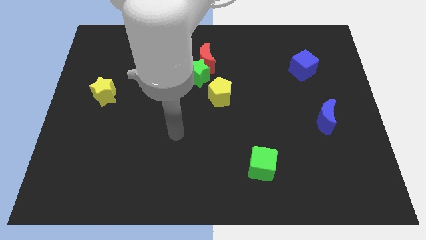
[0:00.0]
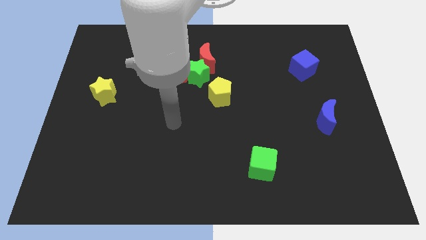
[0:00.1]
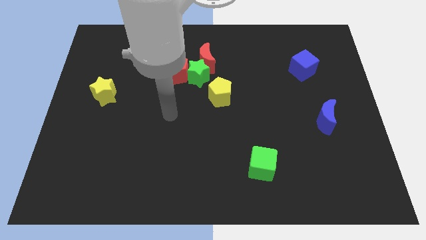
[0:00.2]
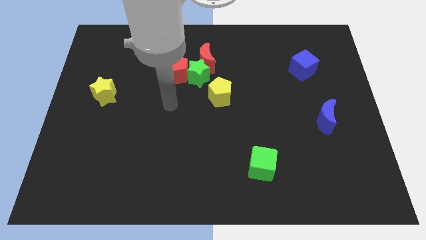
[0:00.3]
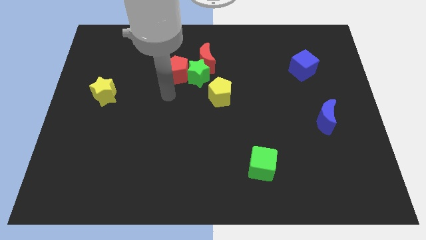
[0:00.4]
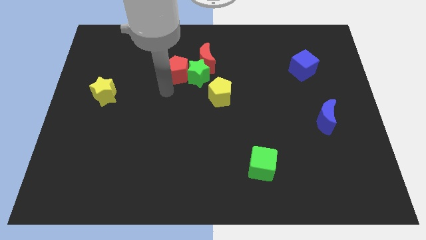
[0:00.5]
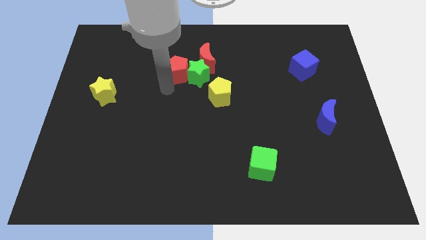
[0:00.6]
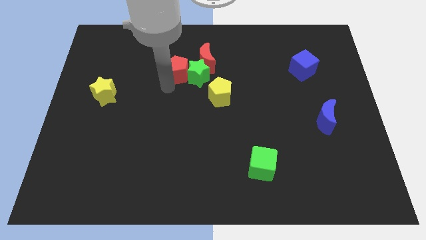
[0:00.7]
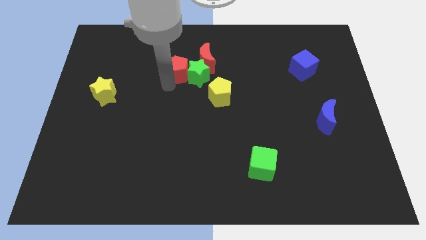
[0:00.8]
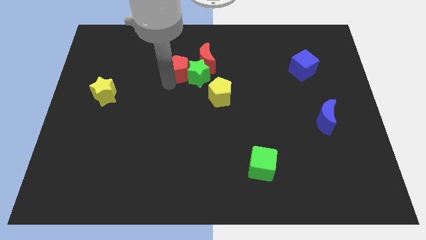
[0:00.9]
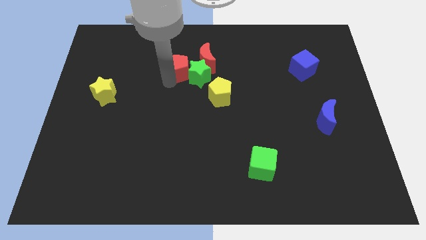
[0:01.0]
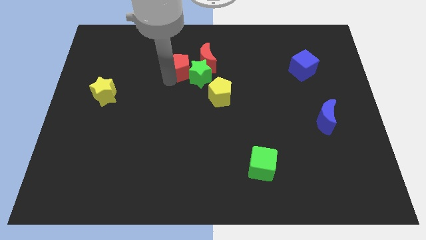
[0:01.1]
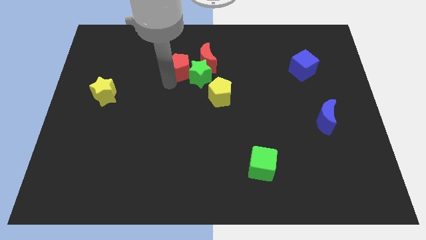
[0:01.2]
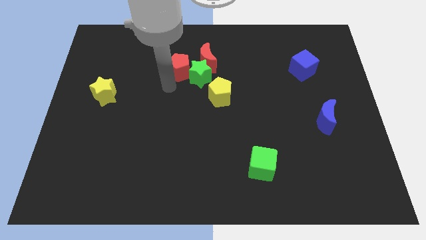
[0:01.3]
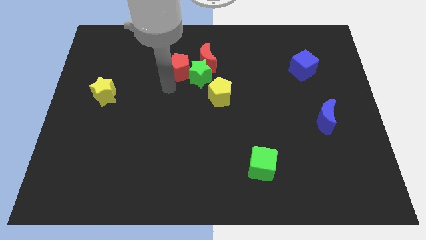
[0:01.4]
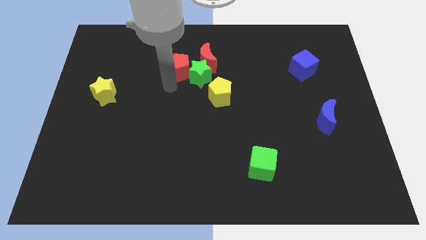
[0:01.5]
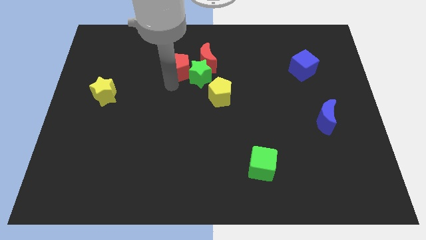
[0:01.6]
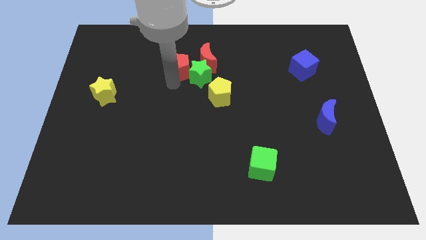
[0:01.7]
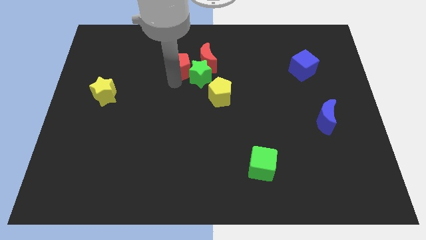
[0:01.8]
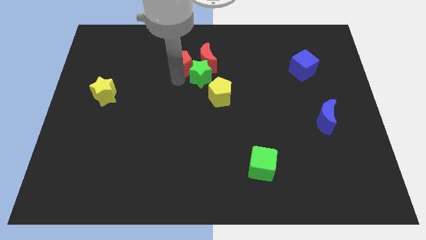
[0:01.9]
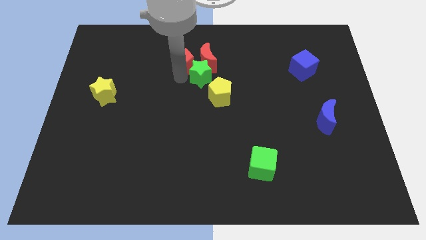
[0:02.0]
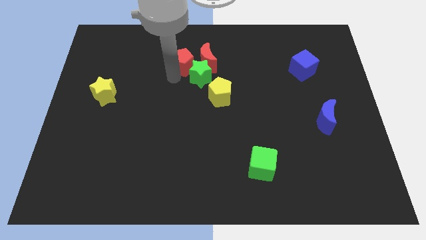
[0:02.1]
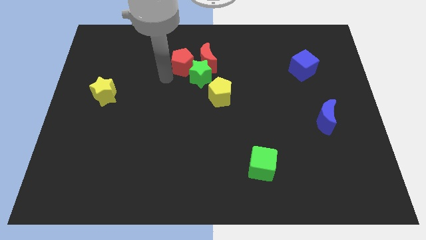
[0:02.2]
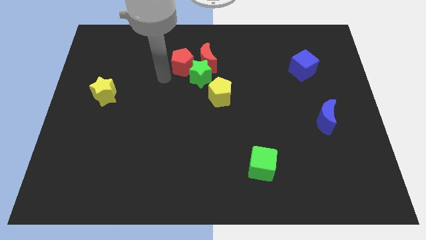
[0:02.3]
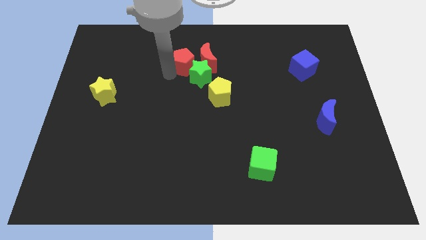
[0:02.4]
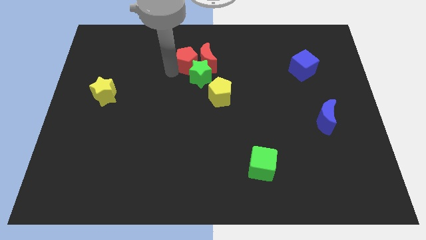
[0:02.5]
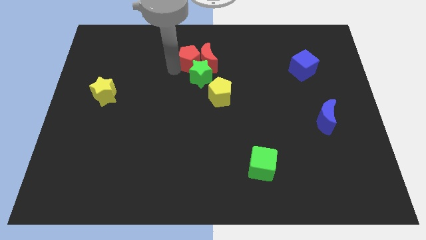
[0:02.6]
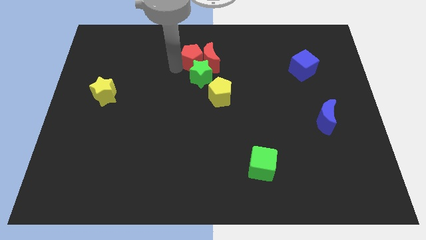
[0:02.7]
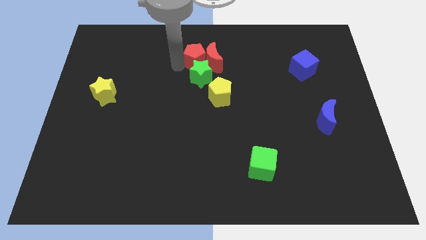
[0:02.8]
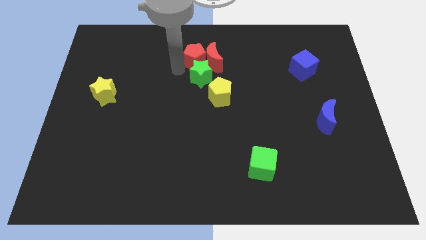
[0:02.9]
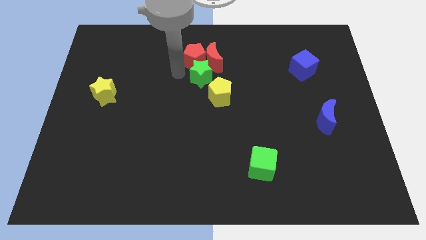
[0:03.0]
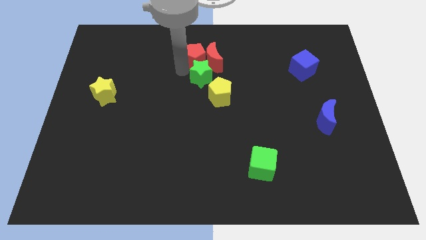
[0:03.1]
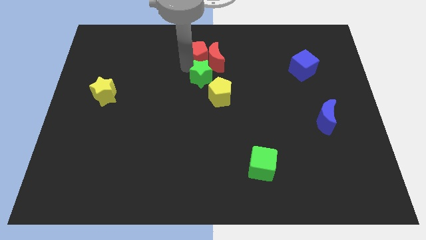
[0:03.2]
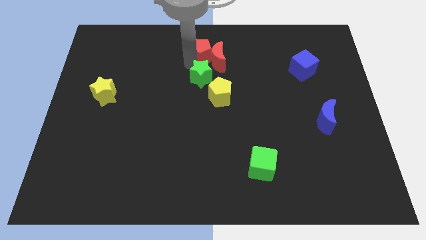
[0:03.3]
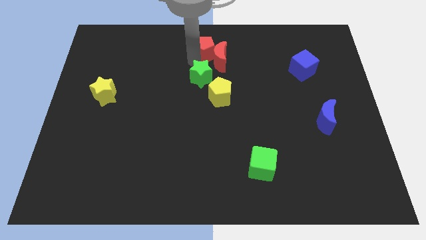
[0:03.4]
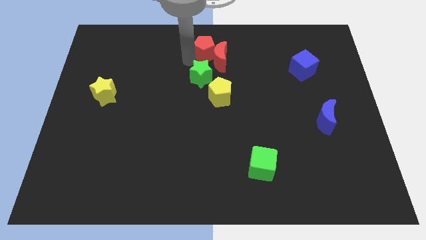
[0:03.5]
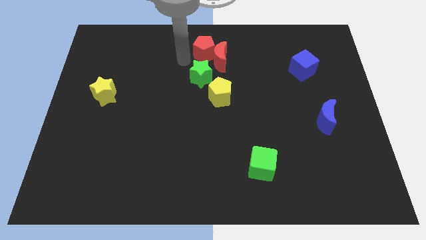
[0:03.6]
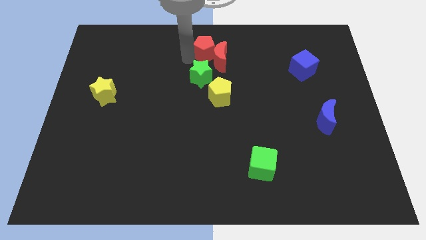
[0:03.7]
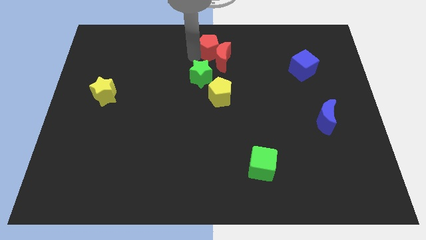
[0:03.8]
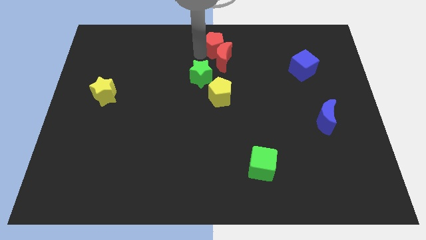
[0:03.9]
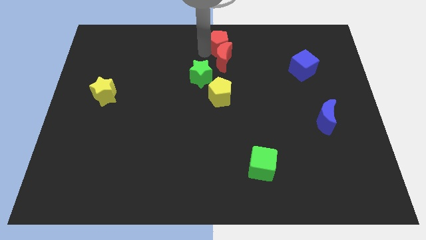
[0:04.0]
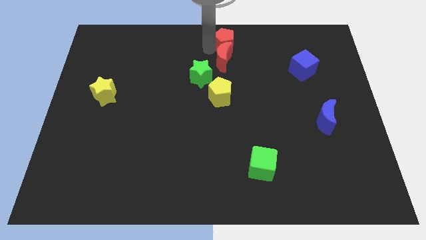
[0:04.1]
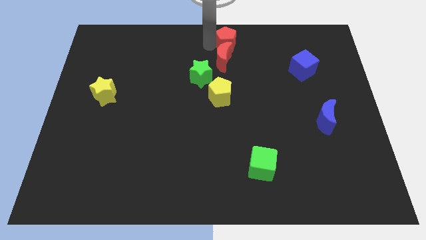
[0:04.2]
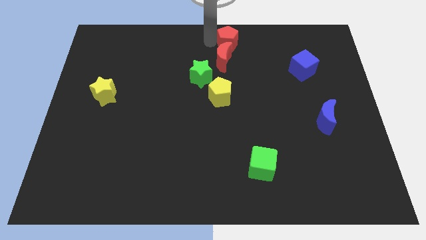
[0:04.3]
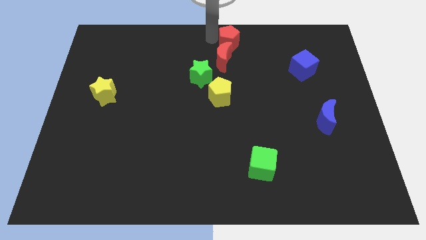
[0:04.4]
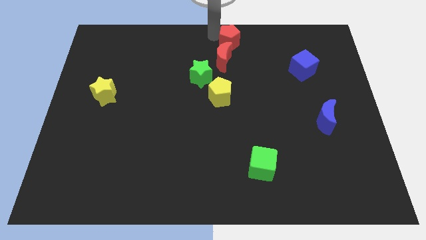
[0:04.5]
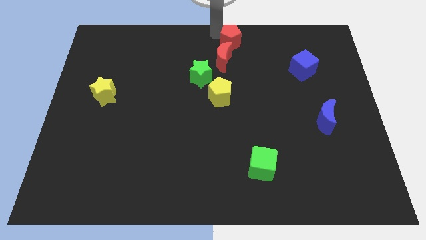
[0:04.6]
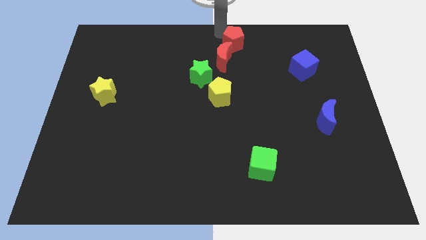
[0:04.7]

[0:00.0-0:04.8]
slide the red pentagon to the right a bit

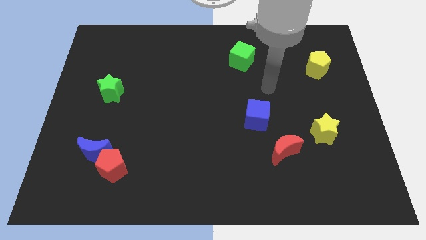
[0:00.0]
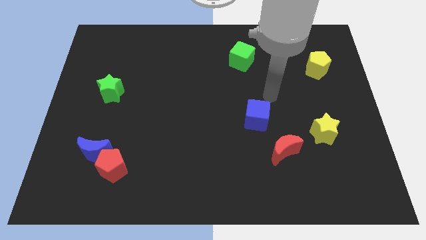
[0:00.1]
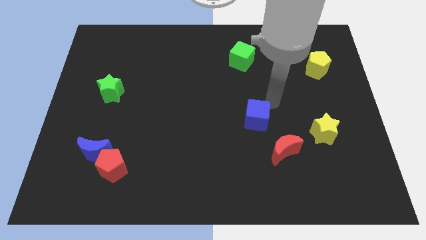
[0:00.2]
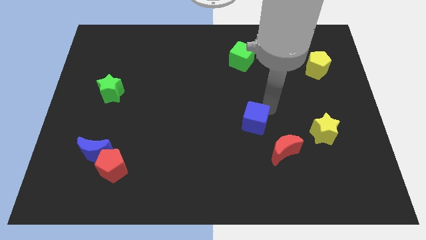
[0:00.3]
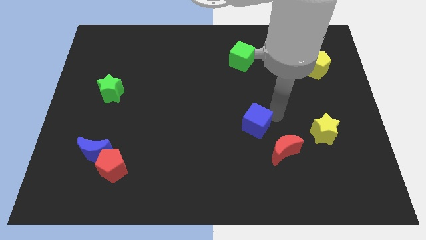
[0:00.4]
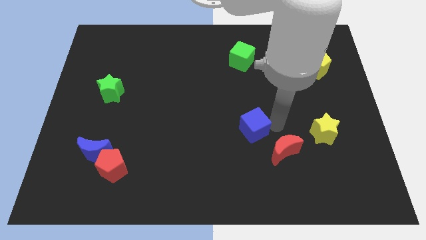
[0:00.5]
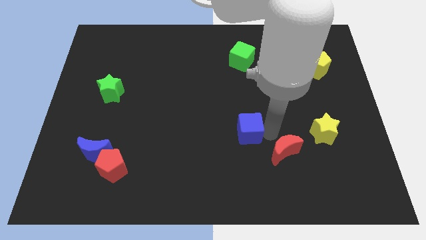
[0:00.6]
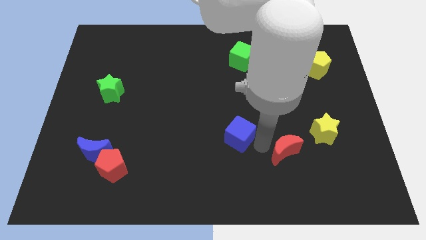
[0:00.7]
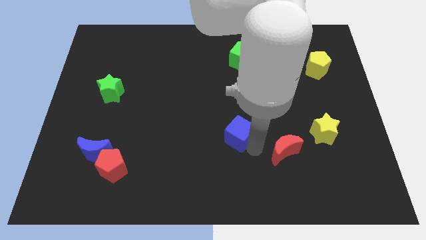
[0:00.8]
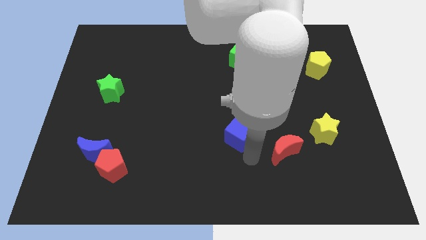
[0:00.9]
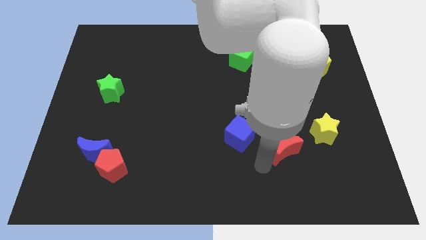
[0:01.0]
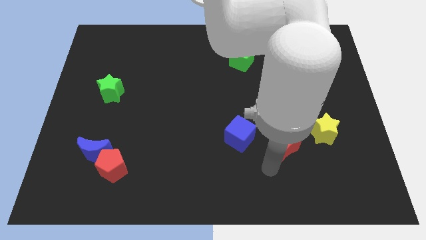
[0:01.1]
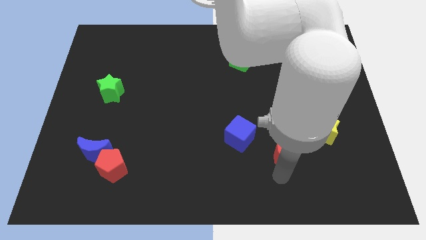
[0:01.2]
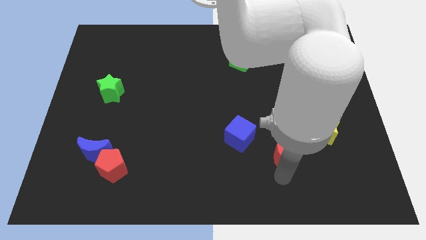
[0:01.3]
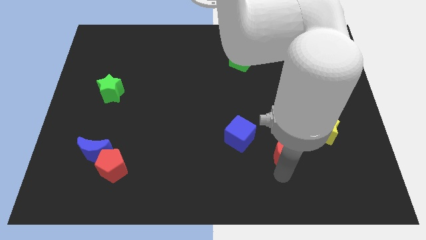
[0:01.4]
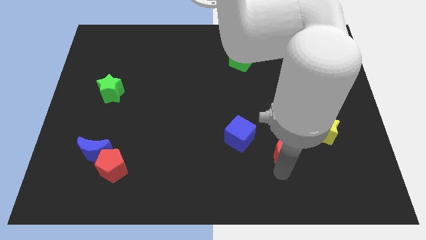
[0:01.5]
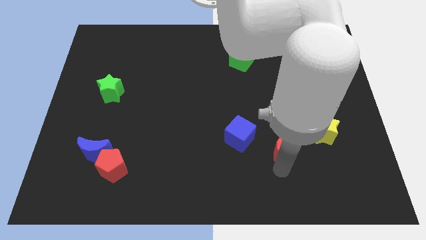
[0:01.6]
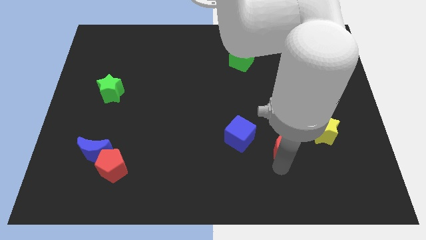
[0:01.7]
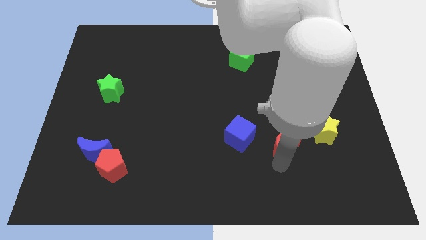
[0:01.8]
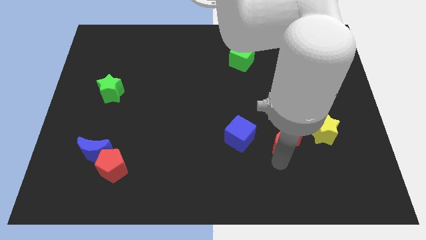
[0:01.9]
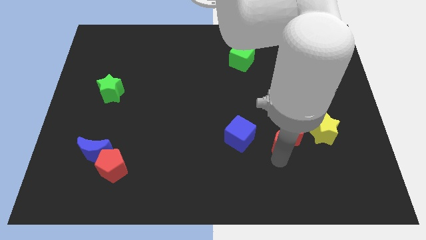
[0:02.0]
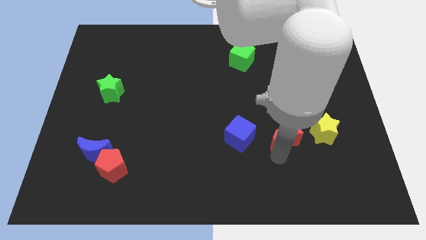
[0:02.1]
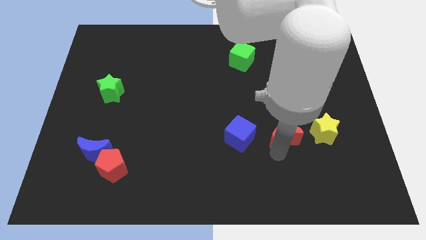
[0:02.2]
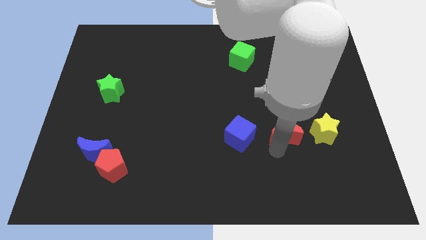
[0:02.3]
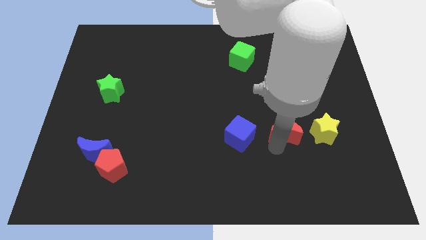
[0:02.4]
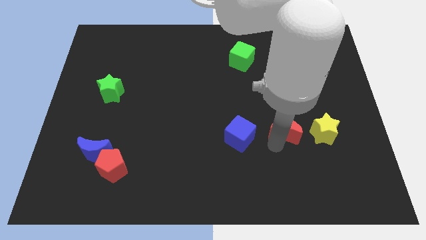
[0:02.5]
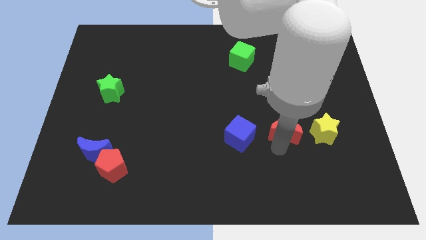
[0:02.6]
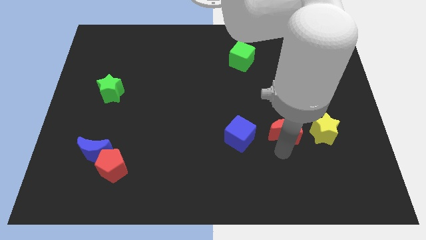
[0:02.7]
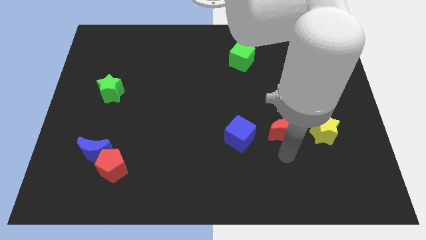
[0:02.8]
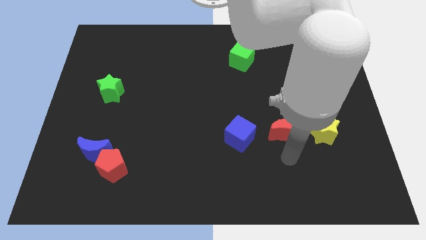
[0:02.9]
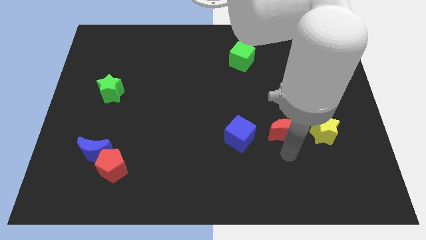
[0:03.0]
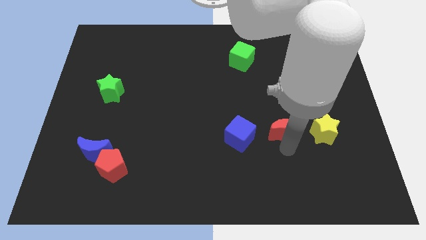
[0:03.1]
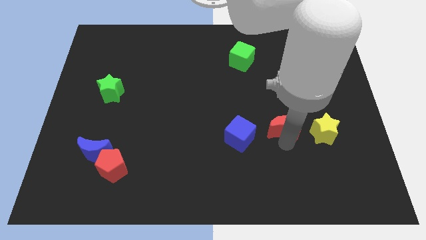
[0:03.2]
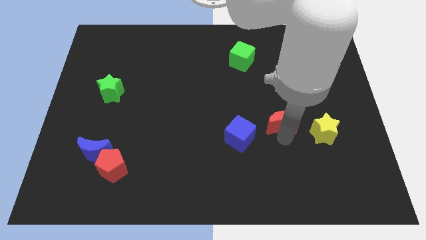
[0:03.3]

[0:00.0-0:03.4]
move the red moon somewhat up
